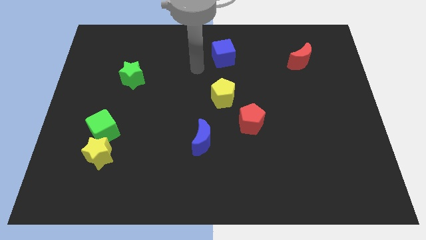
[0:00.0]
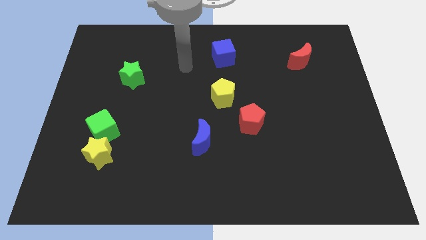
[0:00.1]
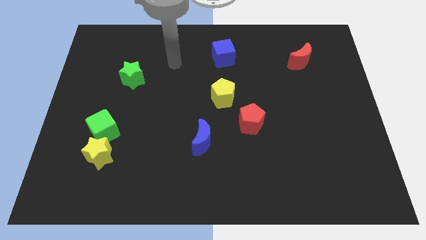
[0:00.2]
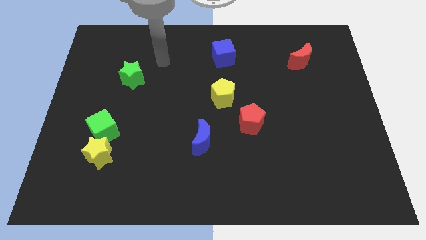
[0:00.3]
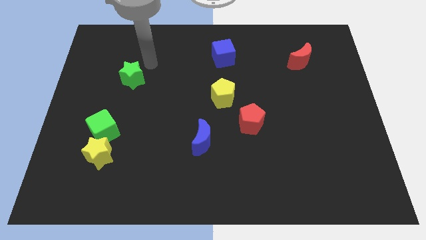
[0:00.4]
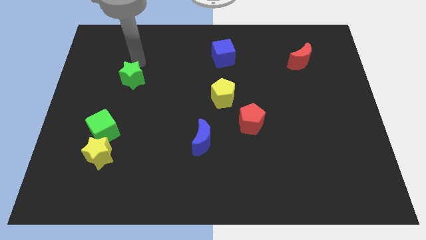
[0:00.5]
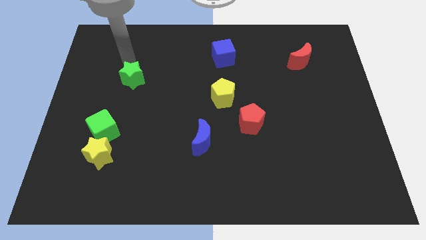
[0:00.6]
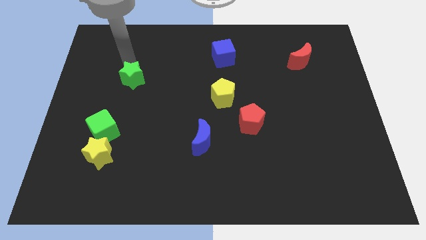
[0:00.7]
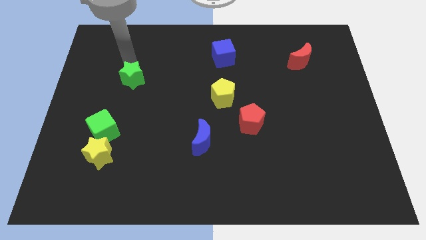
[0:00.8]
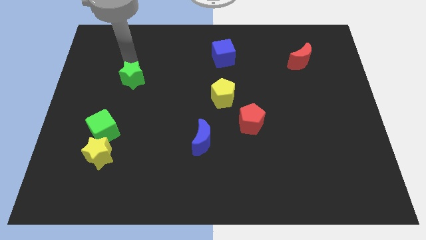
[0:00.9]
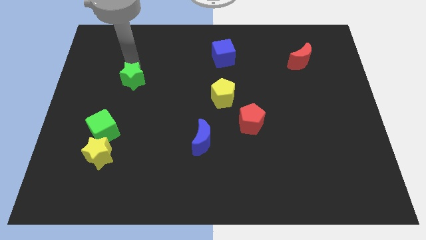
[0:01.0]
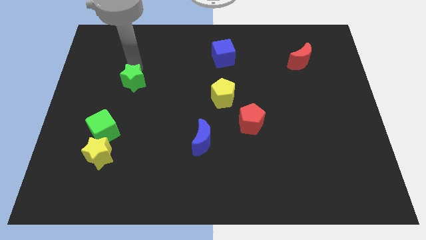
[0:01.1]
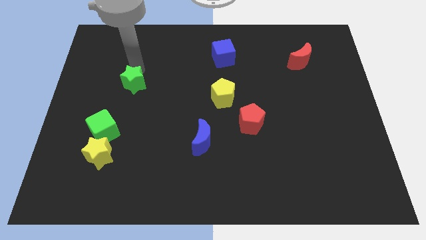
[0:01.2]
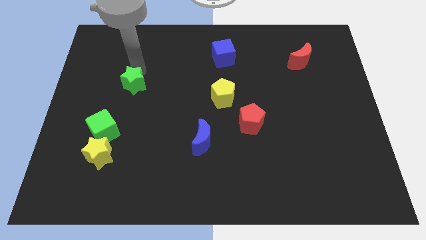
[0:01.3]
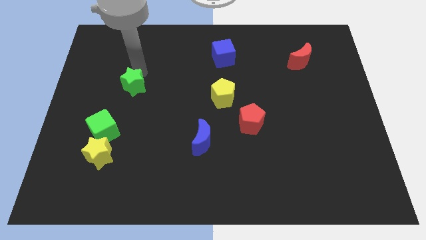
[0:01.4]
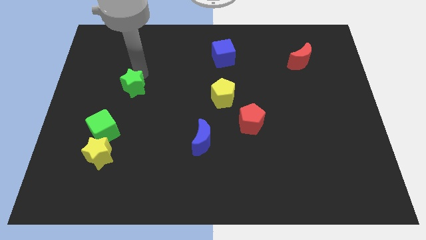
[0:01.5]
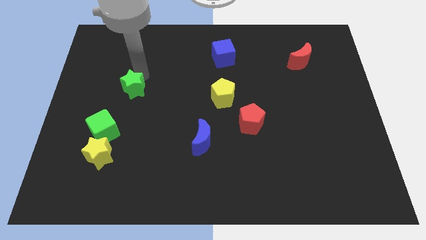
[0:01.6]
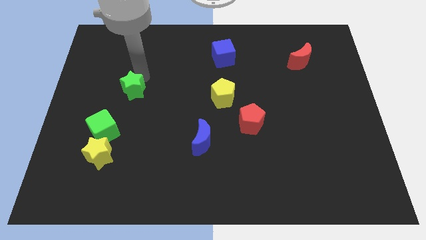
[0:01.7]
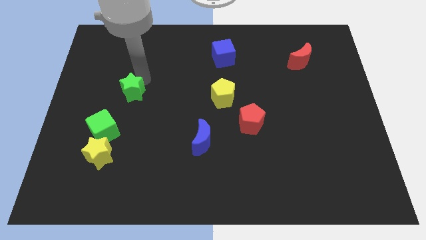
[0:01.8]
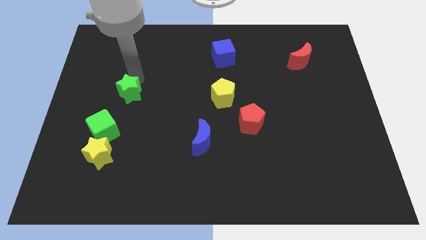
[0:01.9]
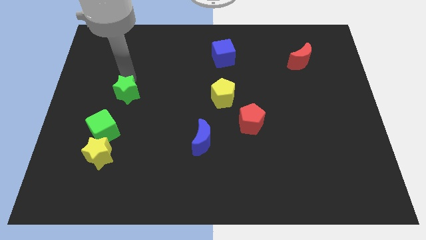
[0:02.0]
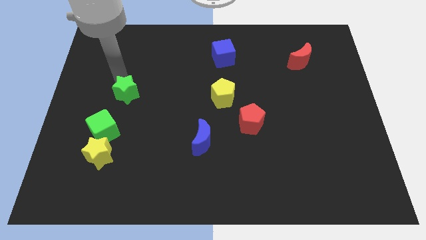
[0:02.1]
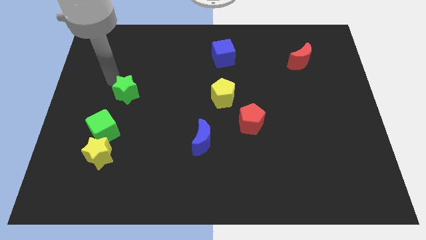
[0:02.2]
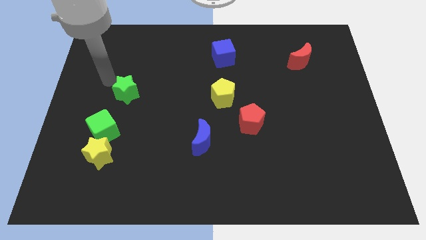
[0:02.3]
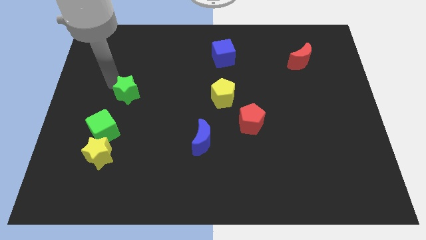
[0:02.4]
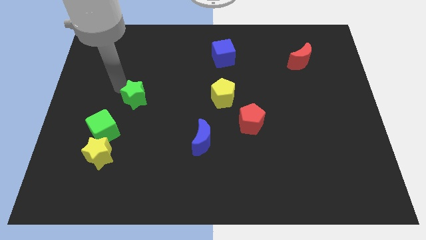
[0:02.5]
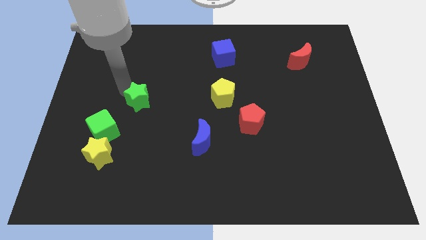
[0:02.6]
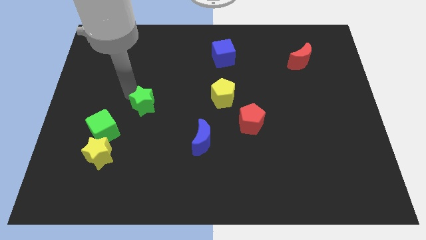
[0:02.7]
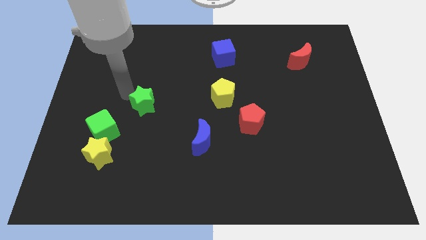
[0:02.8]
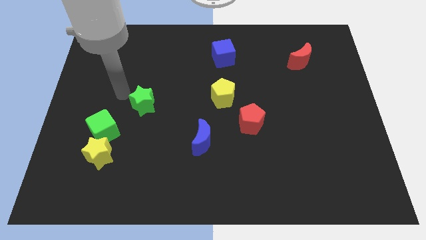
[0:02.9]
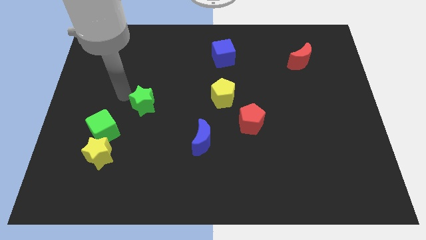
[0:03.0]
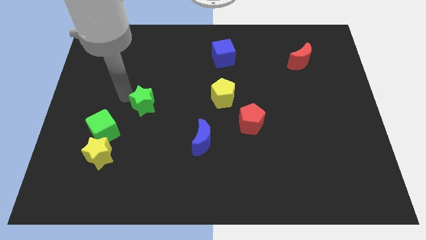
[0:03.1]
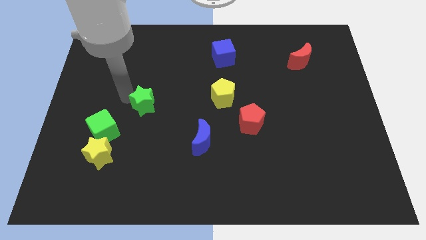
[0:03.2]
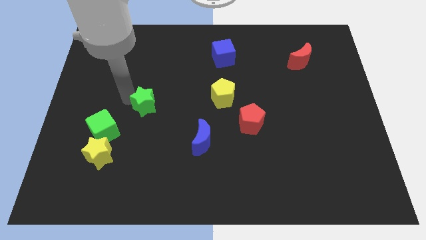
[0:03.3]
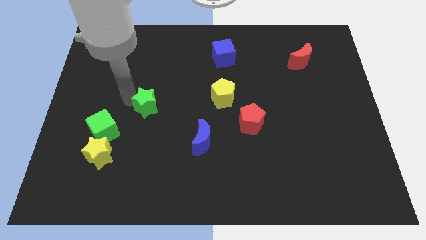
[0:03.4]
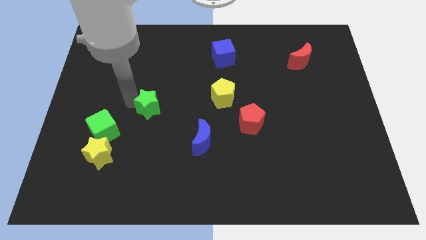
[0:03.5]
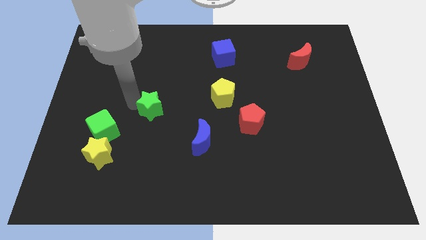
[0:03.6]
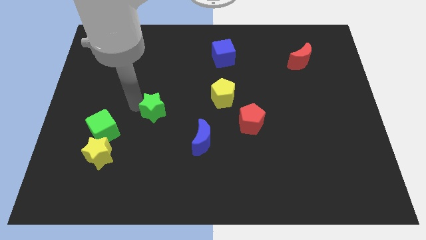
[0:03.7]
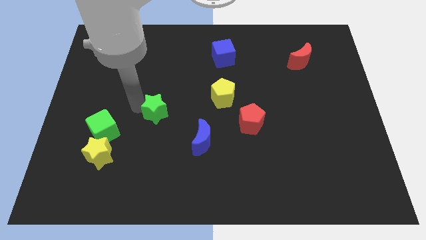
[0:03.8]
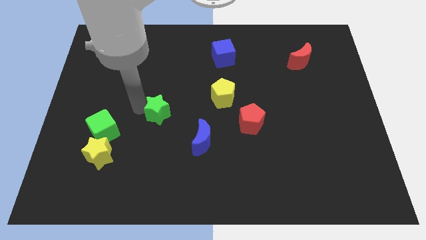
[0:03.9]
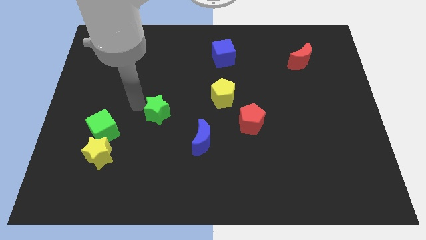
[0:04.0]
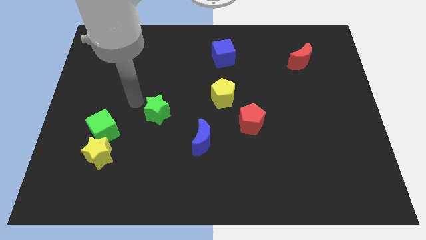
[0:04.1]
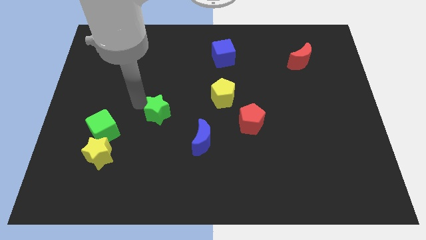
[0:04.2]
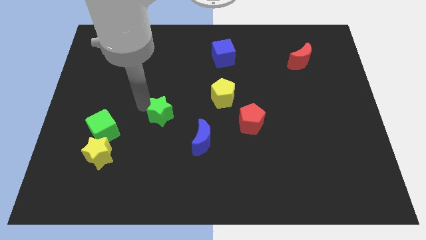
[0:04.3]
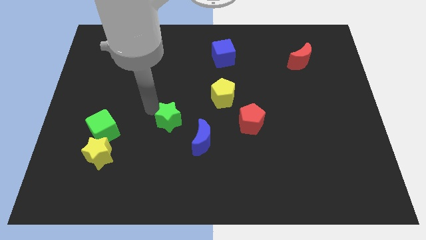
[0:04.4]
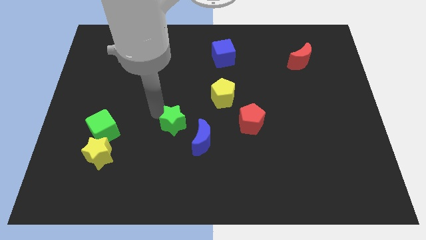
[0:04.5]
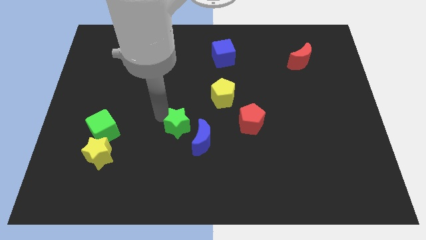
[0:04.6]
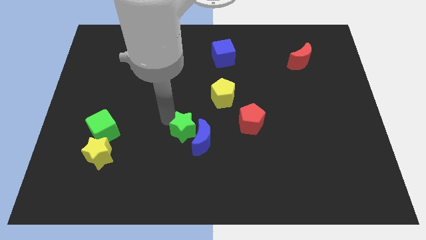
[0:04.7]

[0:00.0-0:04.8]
slide the green star to the blue moon

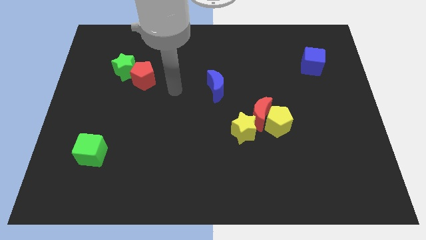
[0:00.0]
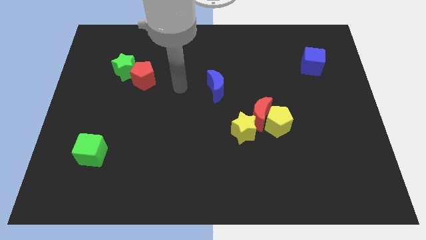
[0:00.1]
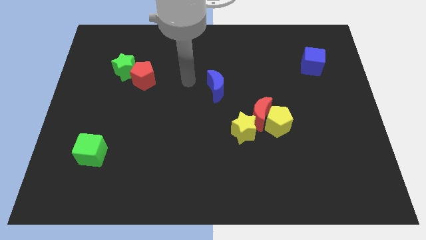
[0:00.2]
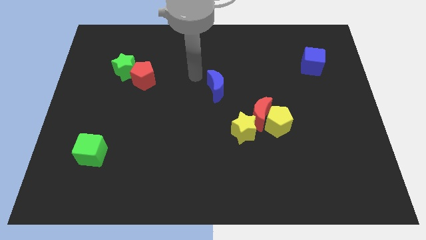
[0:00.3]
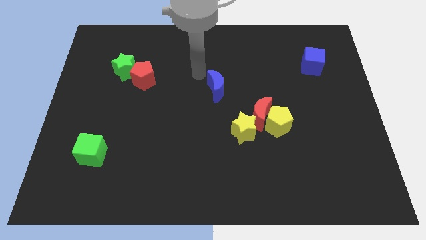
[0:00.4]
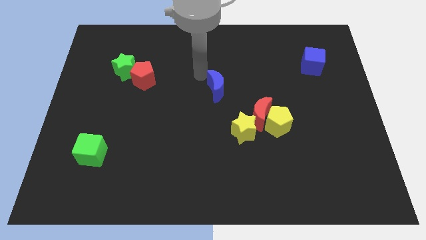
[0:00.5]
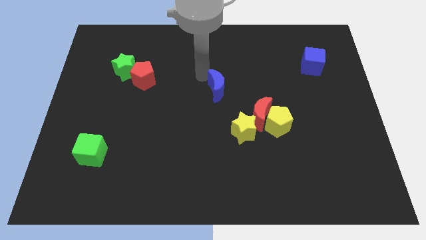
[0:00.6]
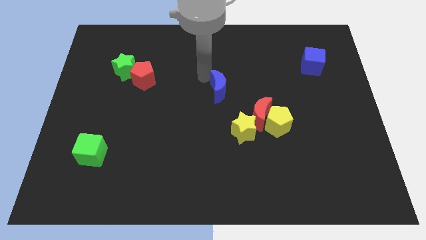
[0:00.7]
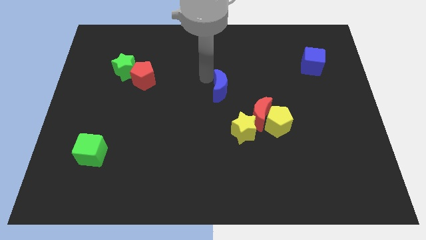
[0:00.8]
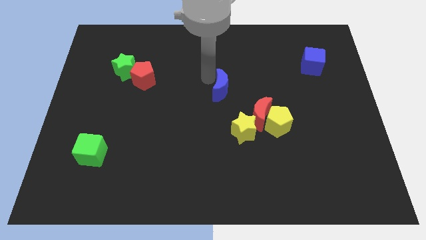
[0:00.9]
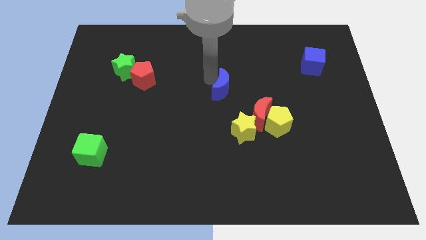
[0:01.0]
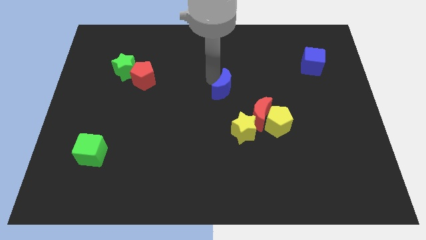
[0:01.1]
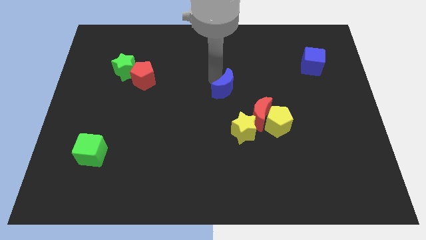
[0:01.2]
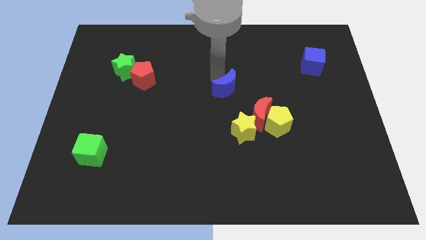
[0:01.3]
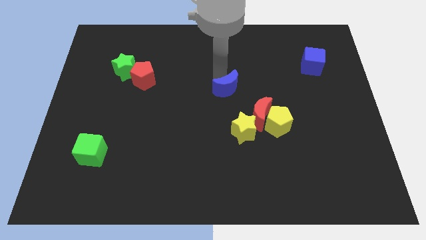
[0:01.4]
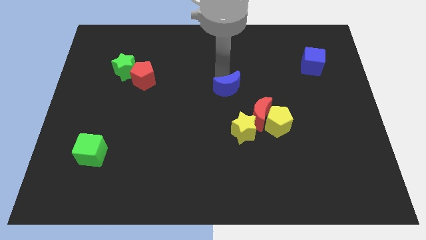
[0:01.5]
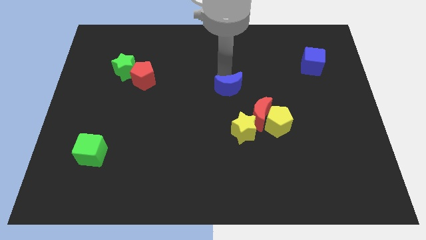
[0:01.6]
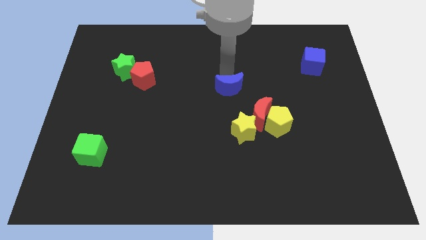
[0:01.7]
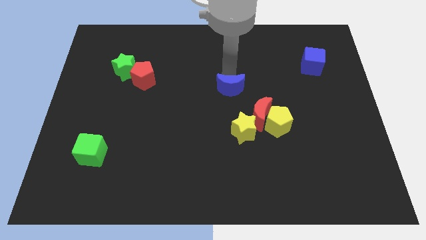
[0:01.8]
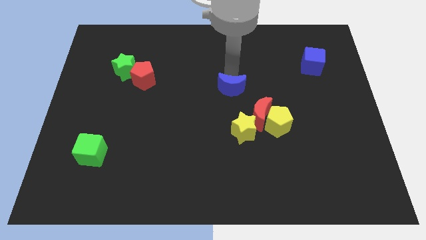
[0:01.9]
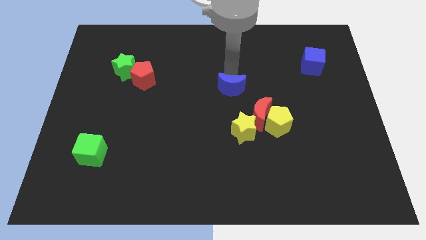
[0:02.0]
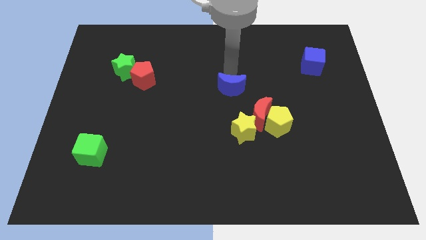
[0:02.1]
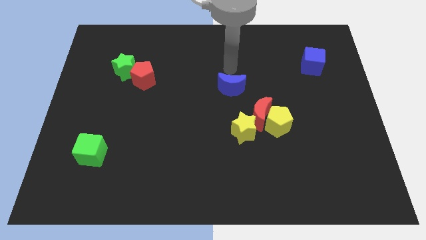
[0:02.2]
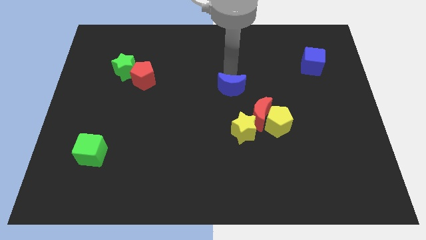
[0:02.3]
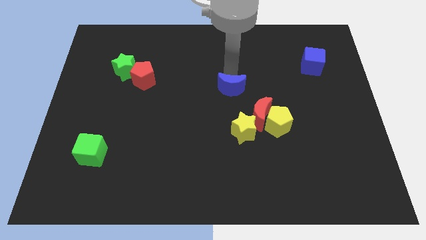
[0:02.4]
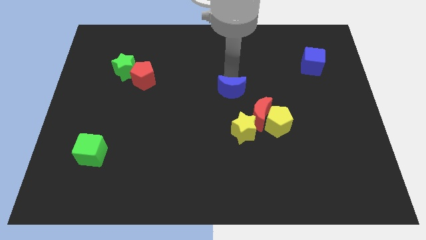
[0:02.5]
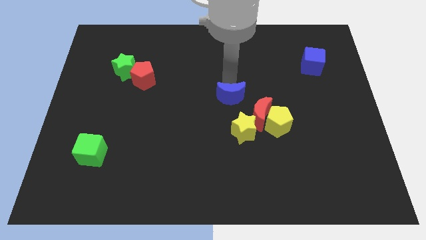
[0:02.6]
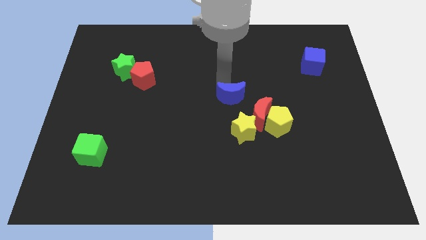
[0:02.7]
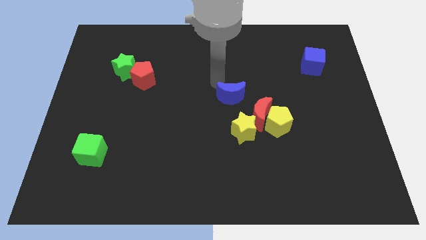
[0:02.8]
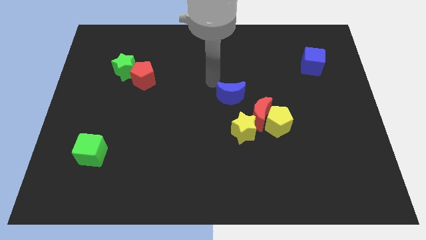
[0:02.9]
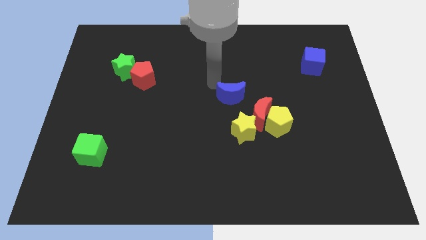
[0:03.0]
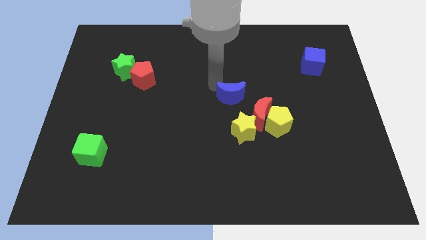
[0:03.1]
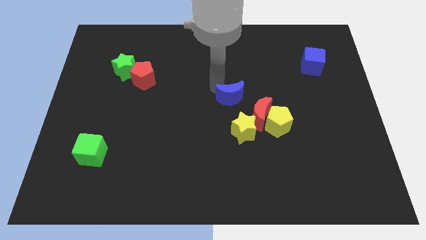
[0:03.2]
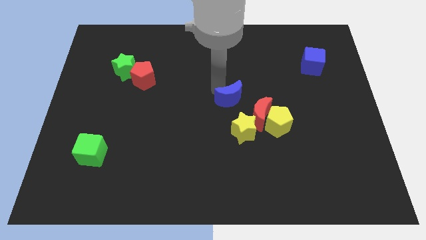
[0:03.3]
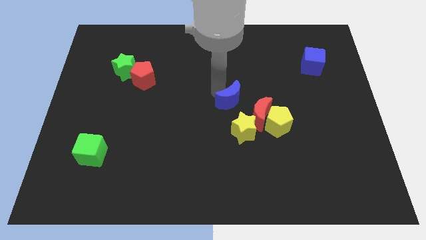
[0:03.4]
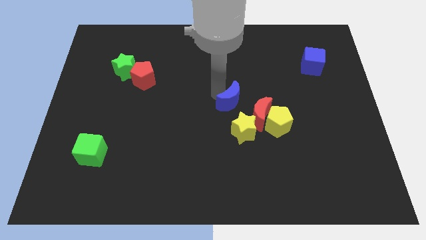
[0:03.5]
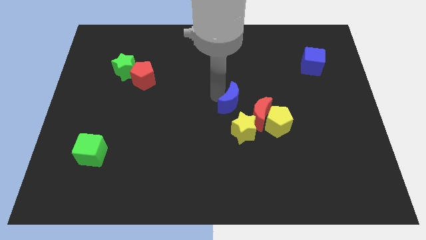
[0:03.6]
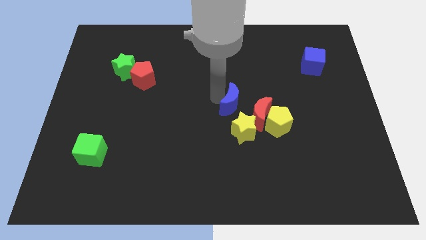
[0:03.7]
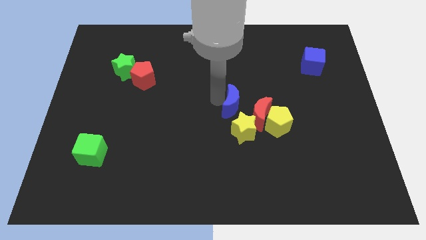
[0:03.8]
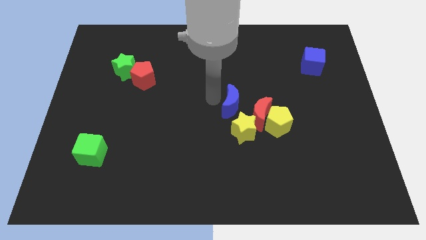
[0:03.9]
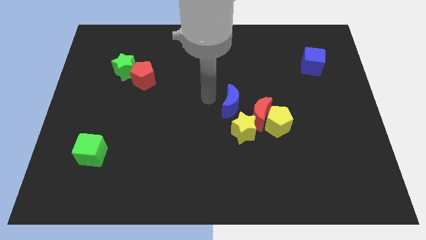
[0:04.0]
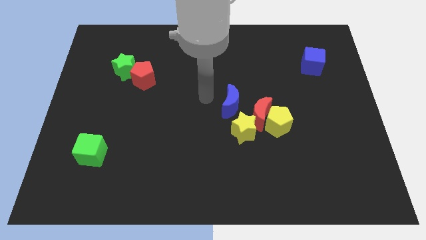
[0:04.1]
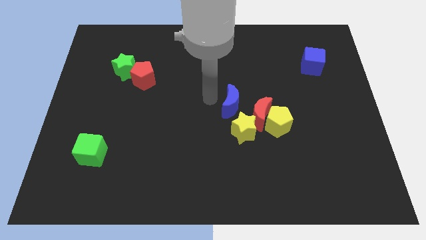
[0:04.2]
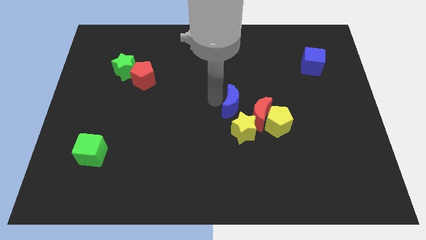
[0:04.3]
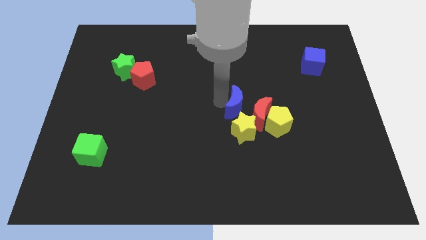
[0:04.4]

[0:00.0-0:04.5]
put the blue moon next to the red moon
